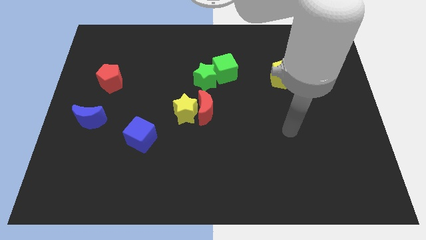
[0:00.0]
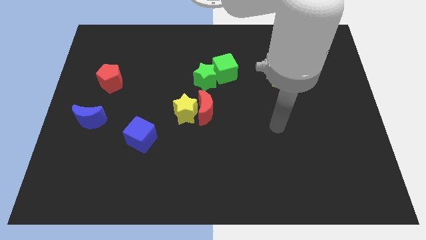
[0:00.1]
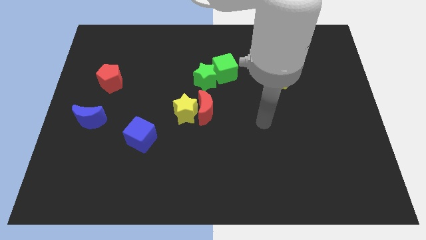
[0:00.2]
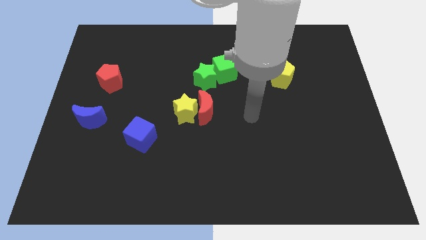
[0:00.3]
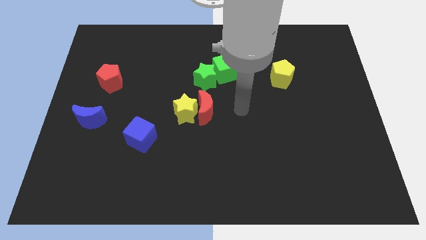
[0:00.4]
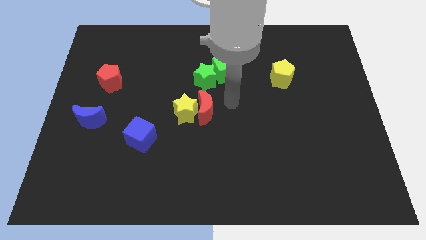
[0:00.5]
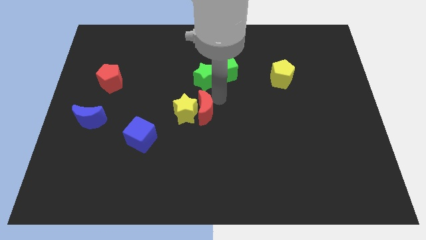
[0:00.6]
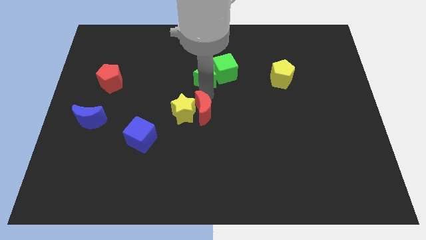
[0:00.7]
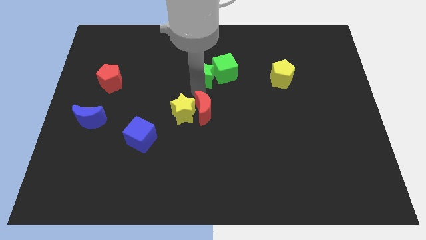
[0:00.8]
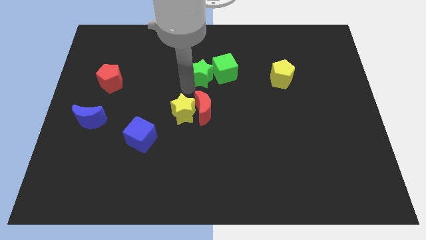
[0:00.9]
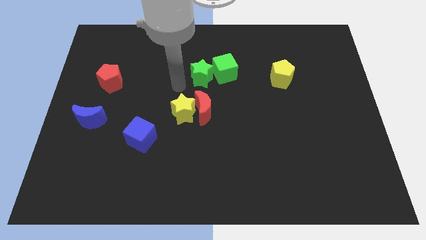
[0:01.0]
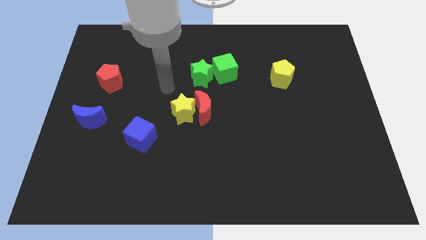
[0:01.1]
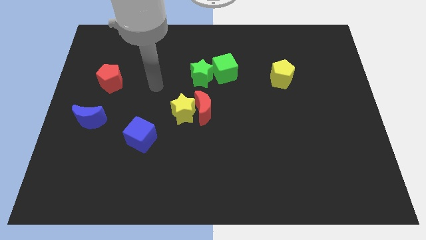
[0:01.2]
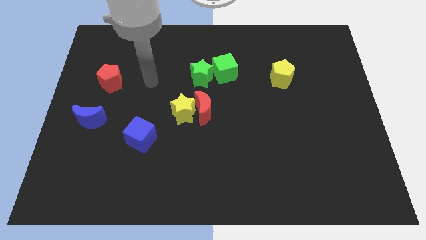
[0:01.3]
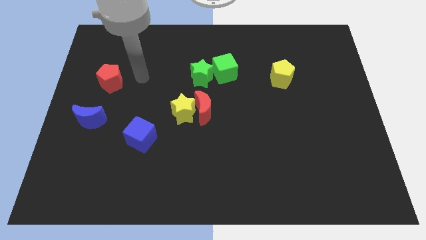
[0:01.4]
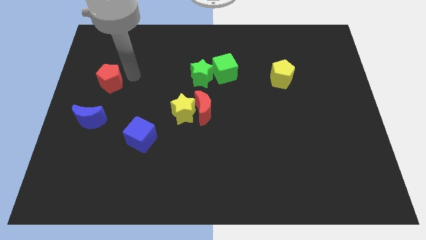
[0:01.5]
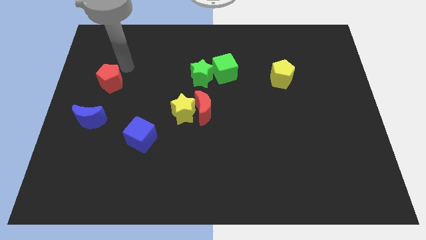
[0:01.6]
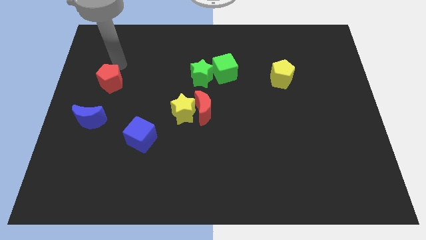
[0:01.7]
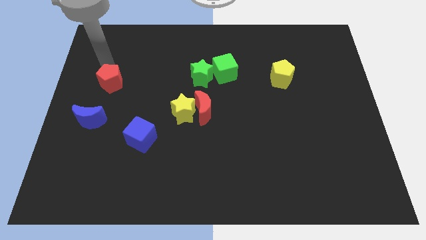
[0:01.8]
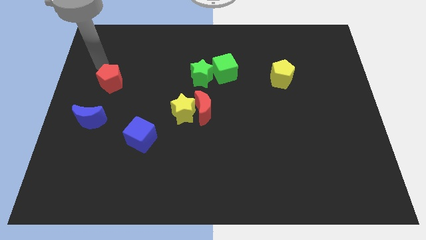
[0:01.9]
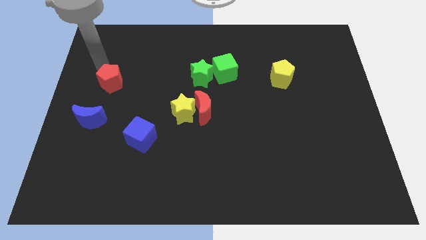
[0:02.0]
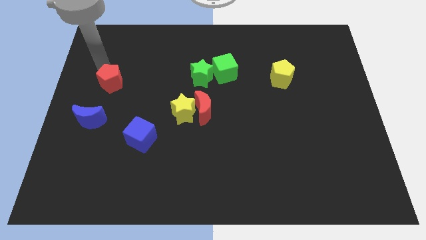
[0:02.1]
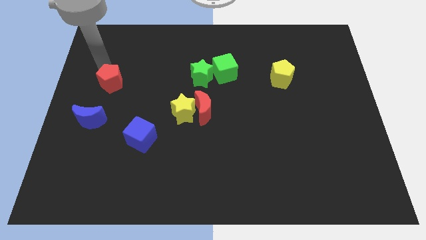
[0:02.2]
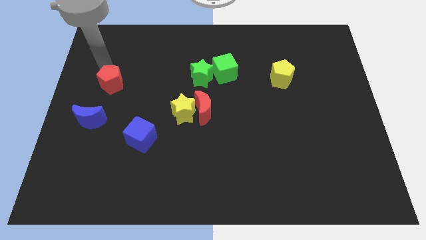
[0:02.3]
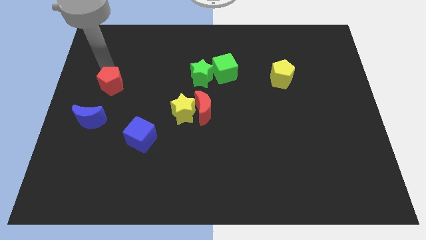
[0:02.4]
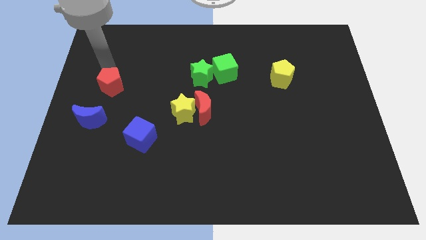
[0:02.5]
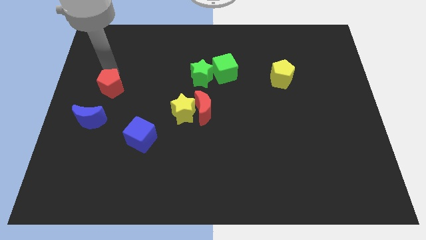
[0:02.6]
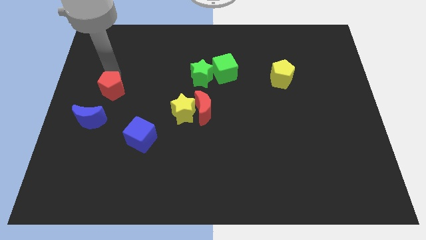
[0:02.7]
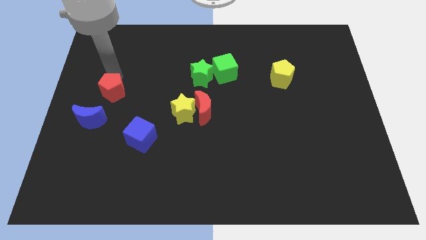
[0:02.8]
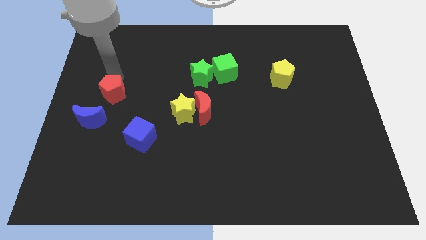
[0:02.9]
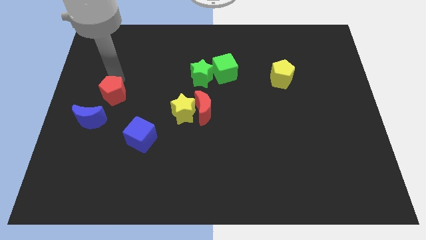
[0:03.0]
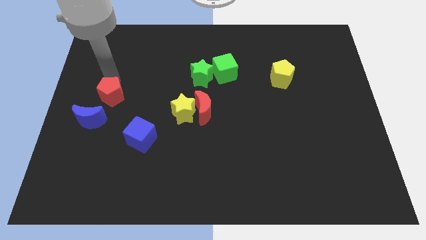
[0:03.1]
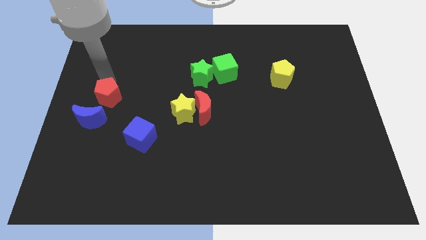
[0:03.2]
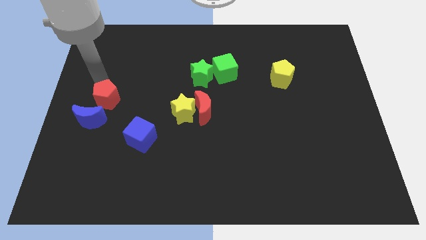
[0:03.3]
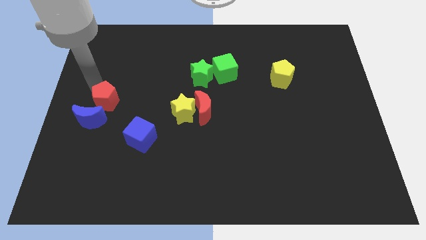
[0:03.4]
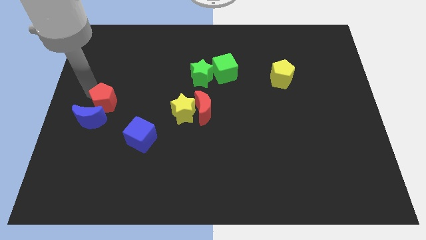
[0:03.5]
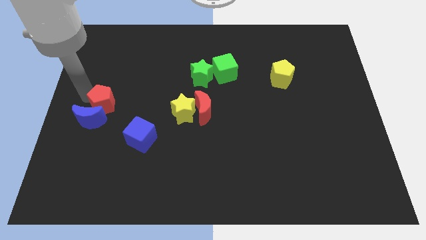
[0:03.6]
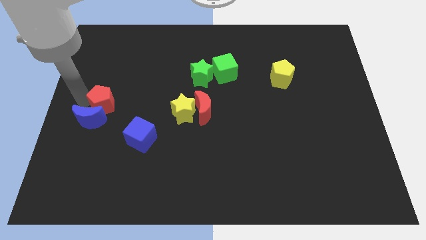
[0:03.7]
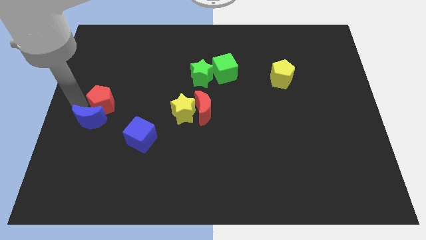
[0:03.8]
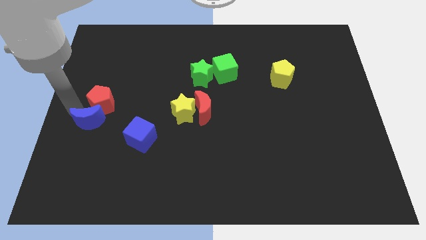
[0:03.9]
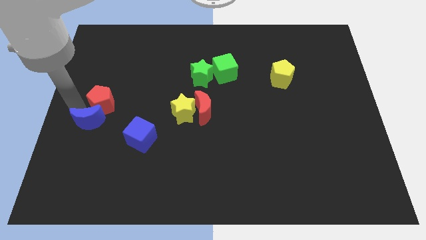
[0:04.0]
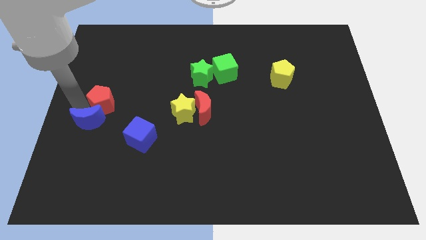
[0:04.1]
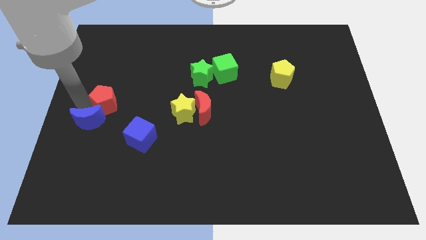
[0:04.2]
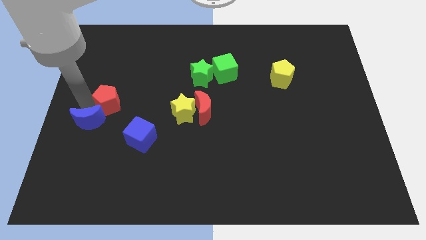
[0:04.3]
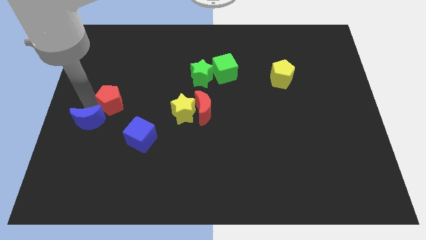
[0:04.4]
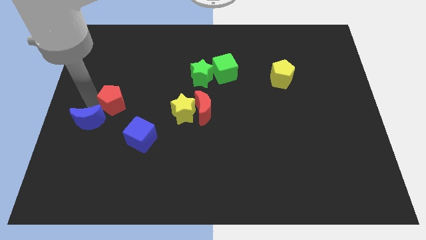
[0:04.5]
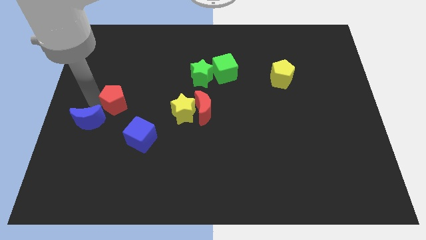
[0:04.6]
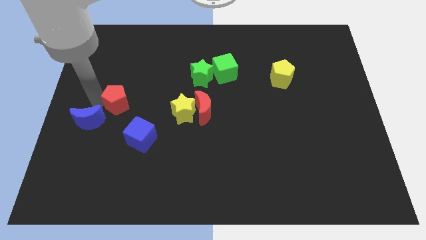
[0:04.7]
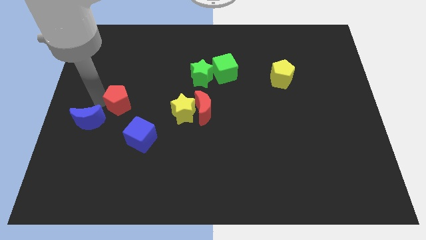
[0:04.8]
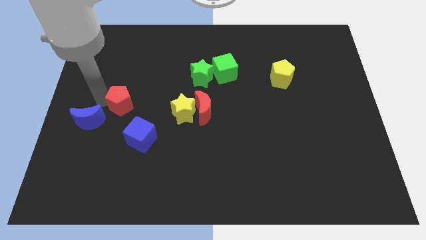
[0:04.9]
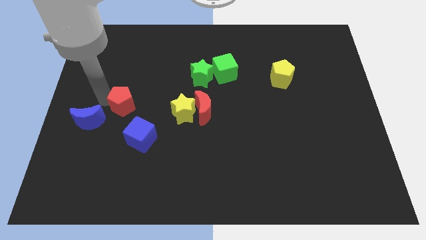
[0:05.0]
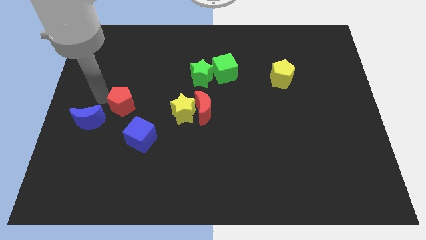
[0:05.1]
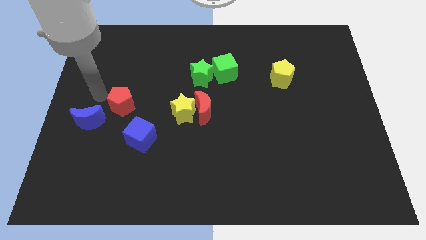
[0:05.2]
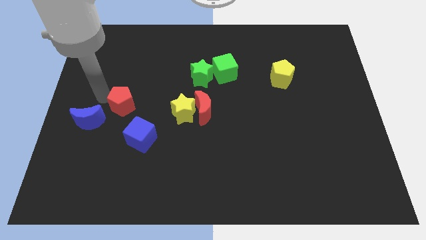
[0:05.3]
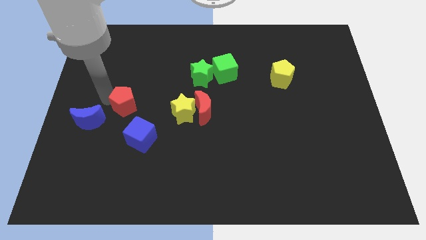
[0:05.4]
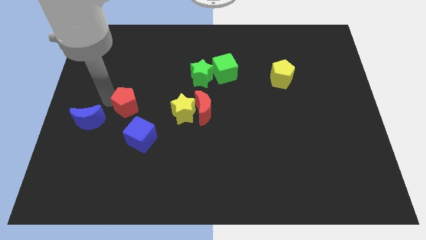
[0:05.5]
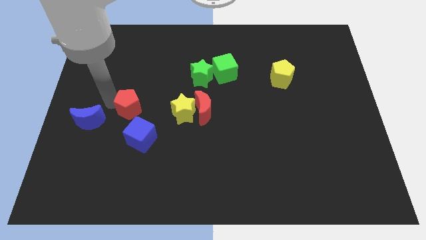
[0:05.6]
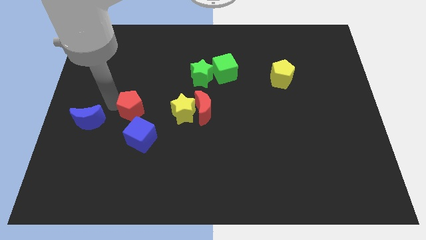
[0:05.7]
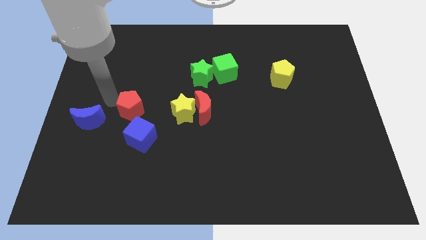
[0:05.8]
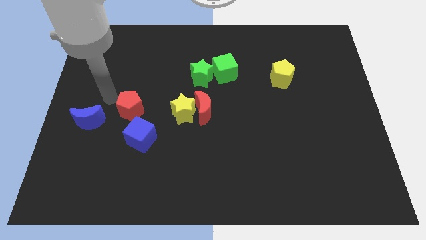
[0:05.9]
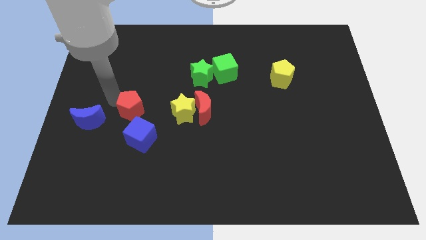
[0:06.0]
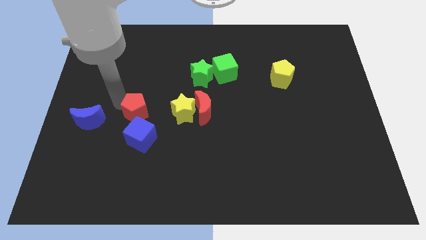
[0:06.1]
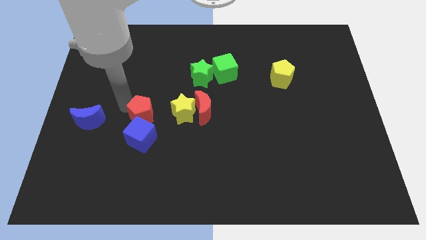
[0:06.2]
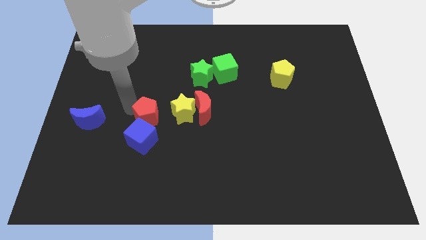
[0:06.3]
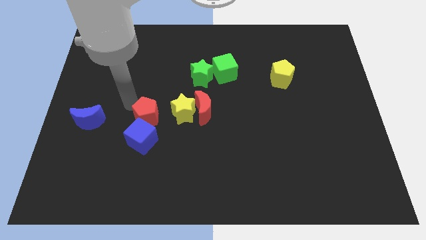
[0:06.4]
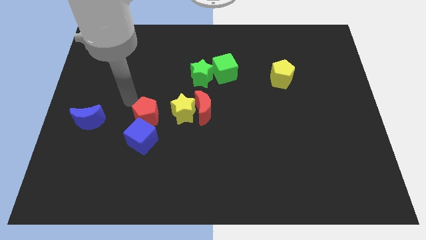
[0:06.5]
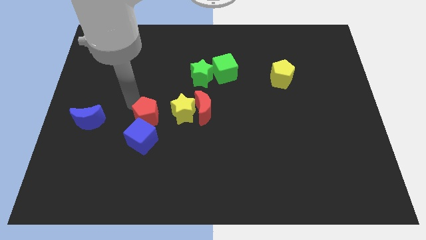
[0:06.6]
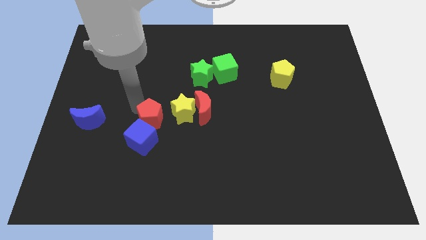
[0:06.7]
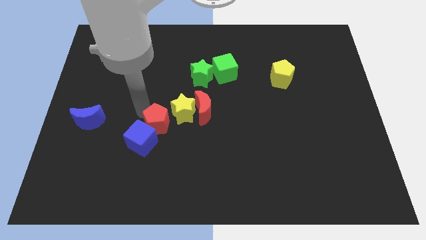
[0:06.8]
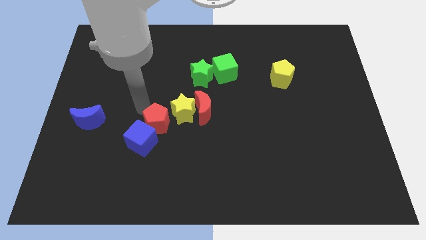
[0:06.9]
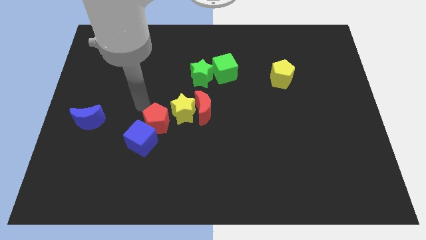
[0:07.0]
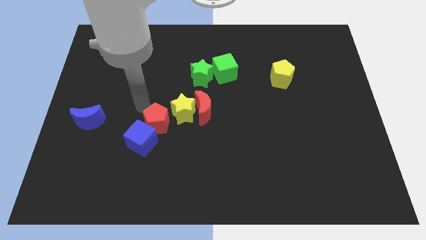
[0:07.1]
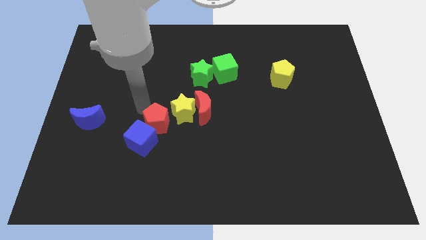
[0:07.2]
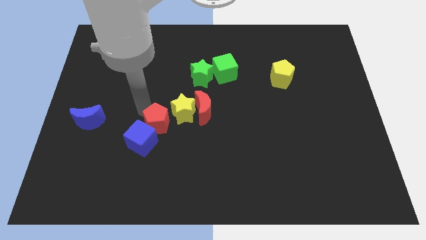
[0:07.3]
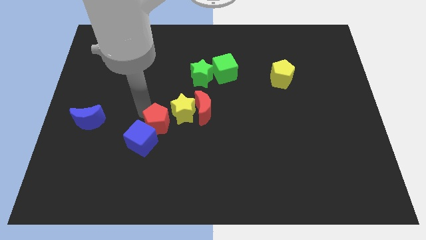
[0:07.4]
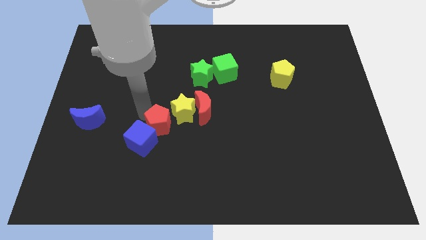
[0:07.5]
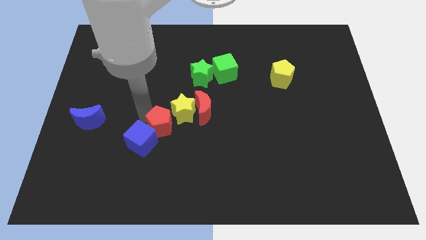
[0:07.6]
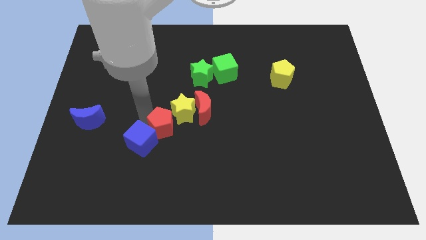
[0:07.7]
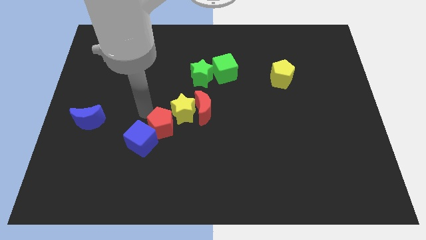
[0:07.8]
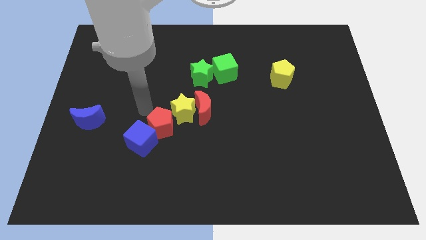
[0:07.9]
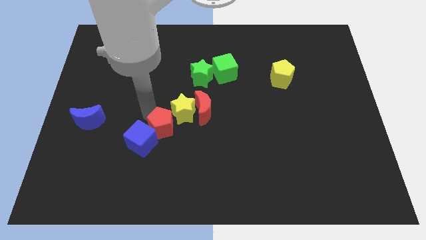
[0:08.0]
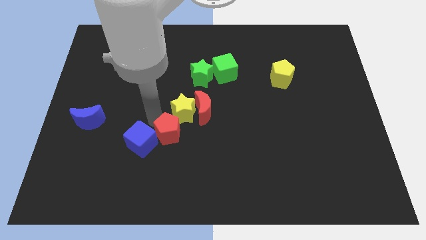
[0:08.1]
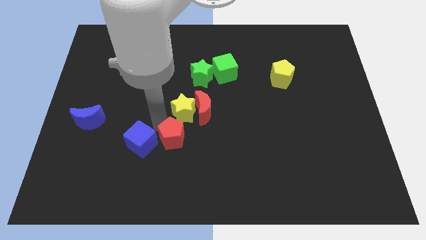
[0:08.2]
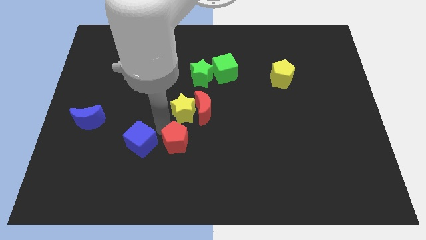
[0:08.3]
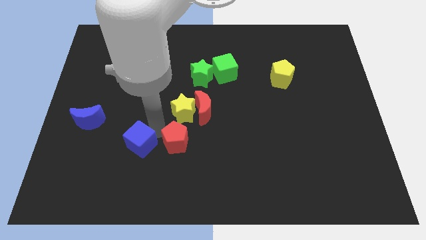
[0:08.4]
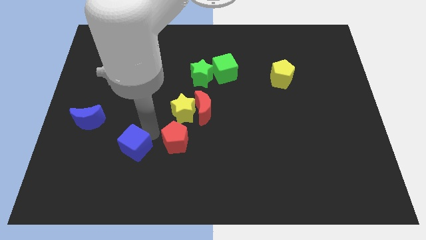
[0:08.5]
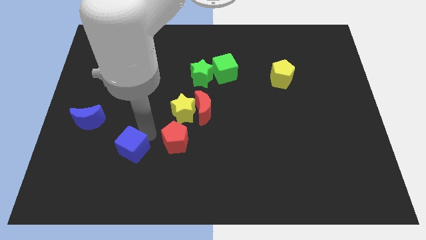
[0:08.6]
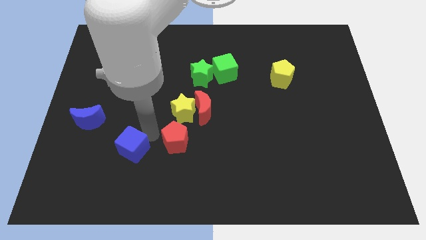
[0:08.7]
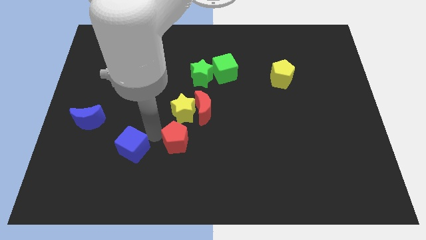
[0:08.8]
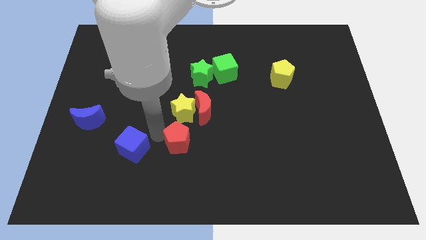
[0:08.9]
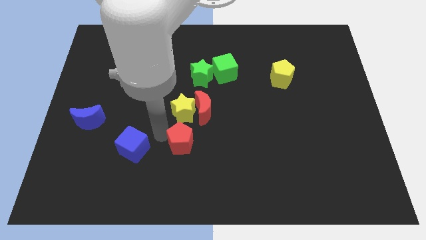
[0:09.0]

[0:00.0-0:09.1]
move the red pentagon to the bottom of the red moon
